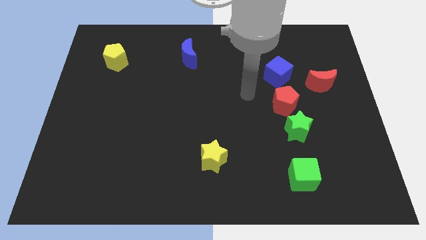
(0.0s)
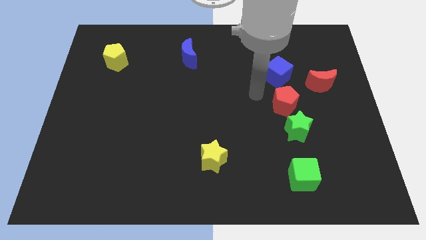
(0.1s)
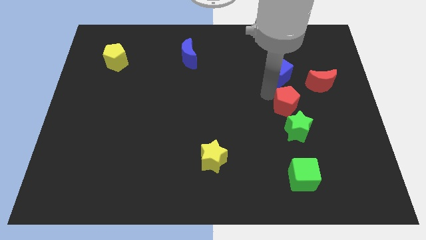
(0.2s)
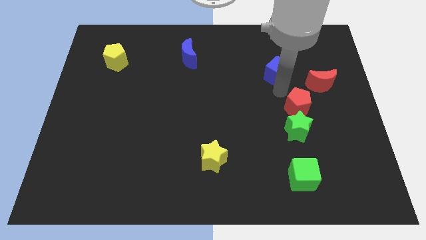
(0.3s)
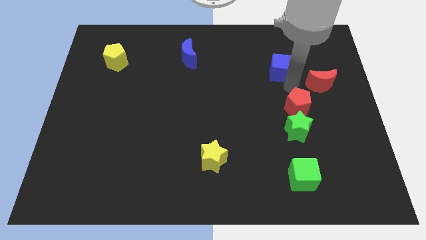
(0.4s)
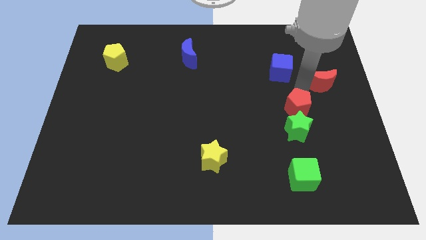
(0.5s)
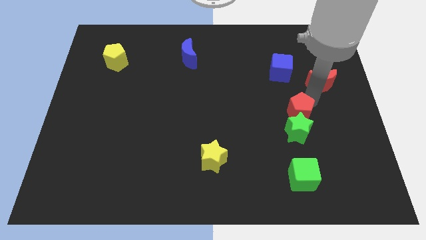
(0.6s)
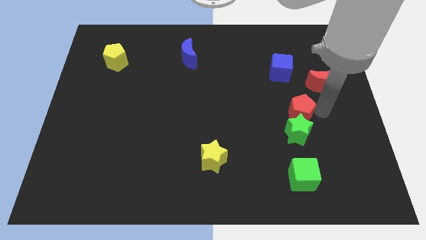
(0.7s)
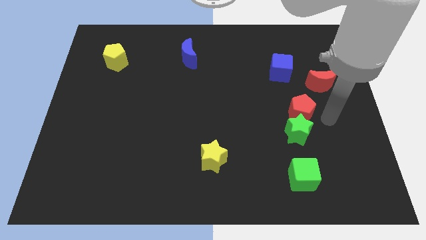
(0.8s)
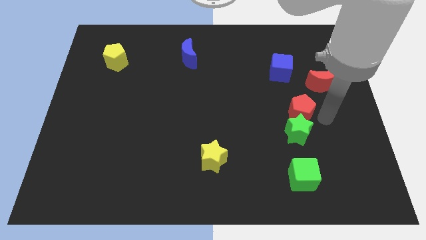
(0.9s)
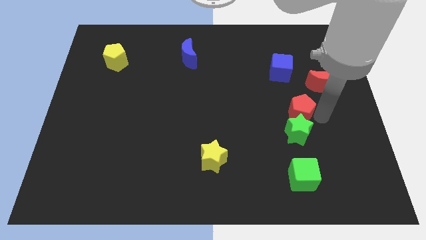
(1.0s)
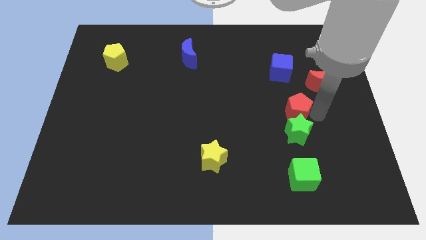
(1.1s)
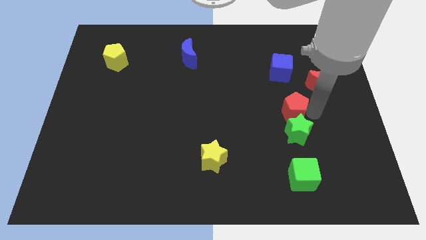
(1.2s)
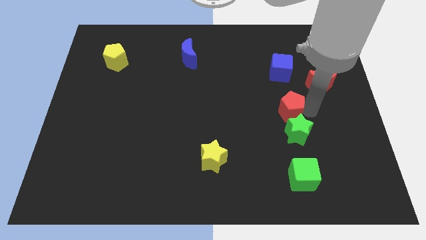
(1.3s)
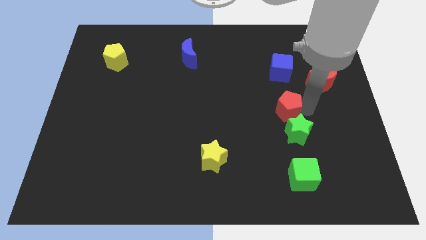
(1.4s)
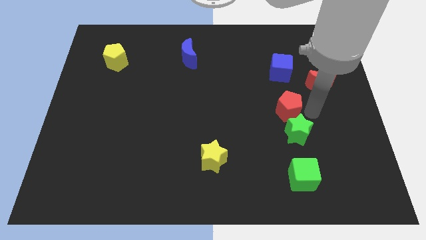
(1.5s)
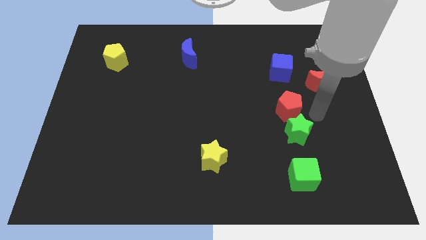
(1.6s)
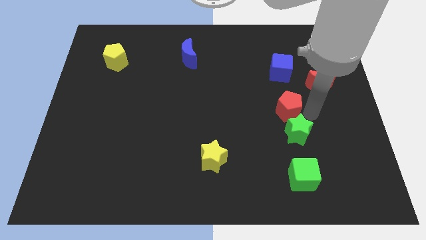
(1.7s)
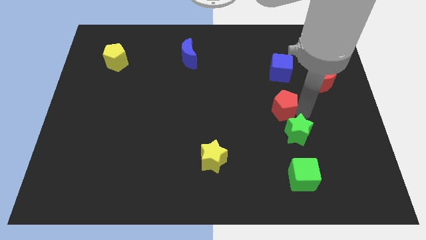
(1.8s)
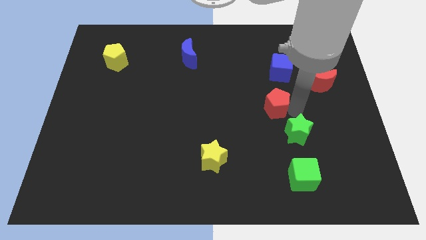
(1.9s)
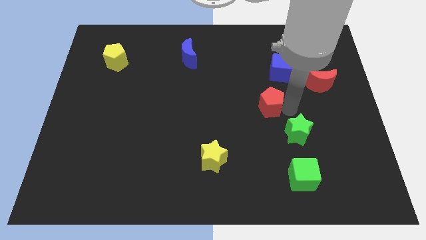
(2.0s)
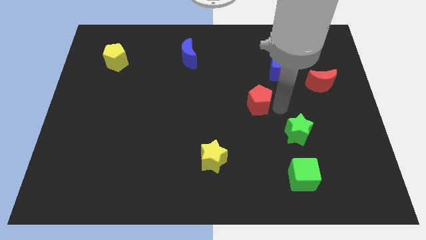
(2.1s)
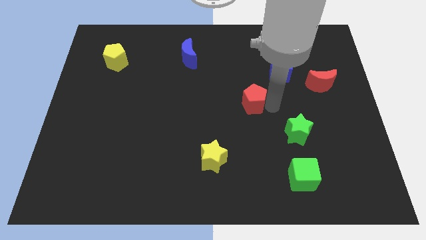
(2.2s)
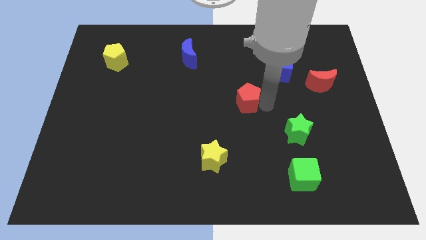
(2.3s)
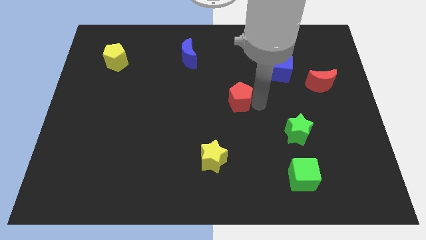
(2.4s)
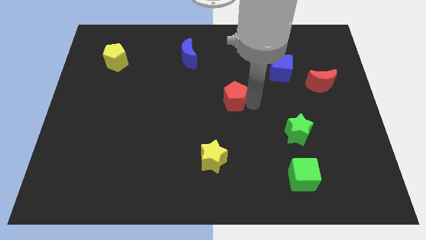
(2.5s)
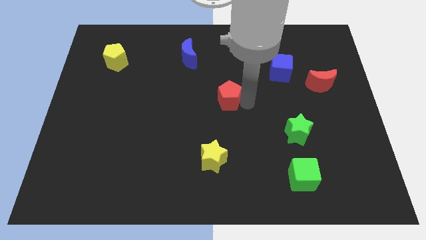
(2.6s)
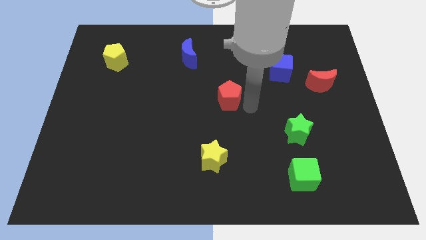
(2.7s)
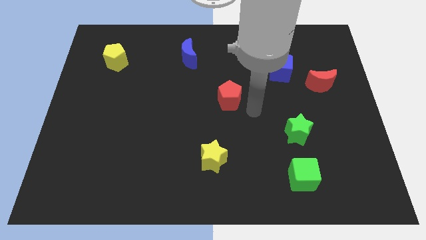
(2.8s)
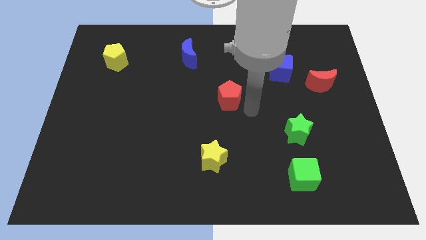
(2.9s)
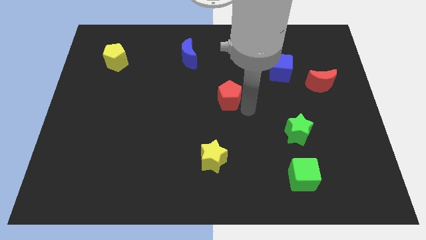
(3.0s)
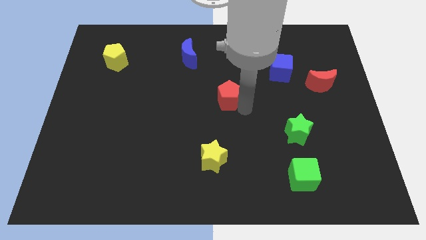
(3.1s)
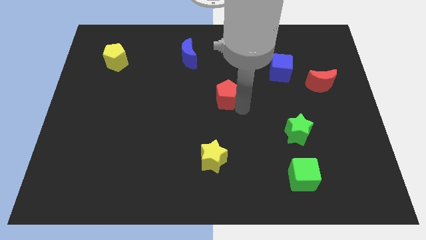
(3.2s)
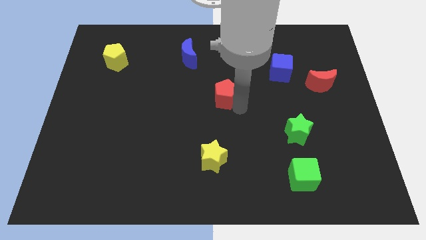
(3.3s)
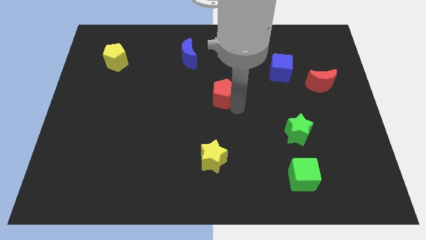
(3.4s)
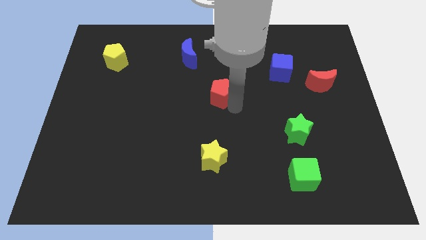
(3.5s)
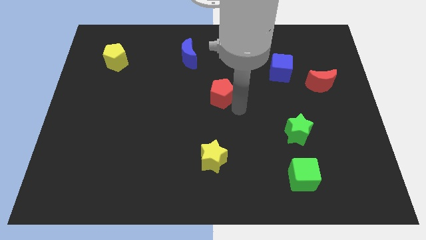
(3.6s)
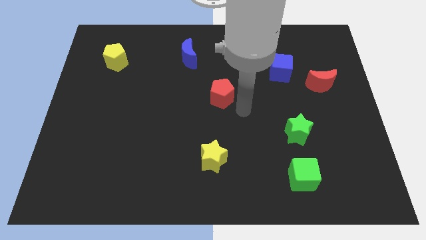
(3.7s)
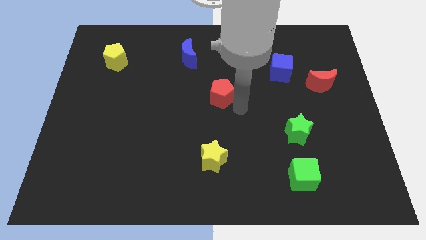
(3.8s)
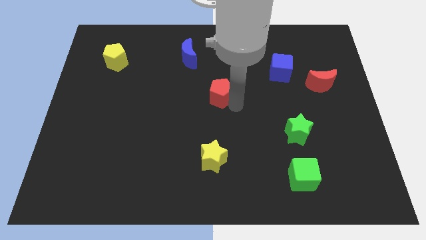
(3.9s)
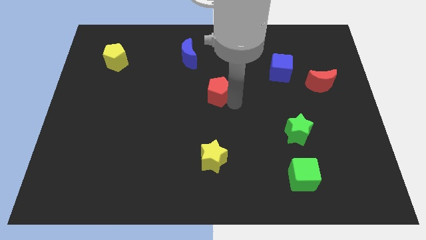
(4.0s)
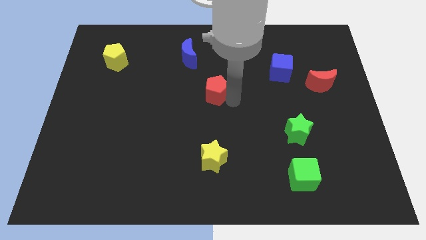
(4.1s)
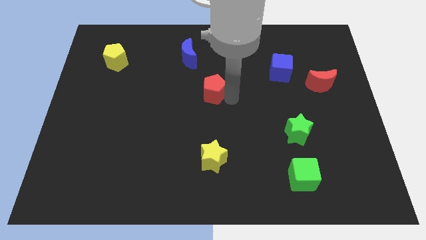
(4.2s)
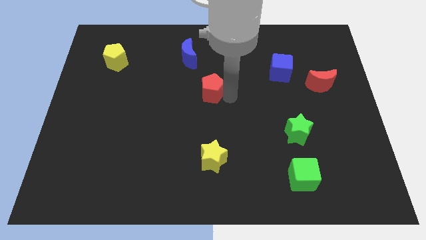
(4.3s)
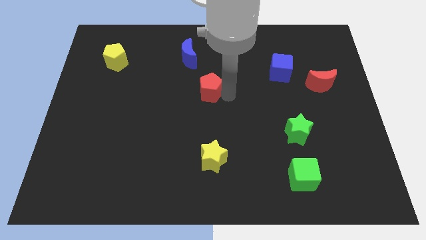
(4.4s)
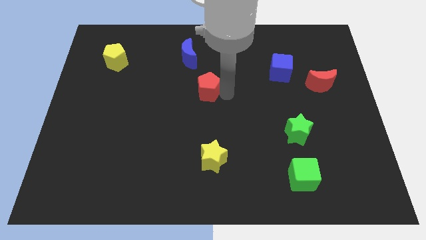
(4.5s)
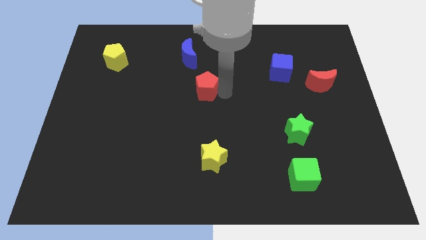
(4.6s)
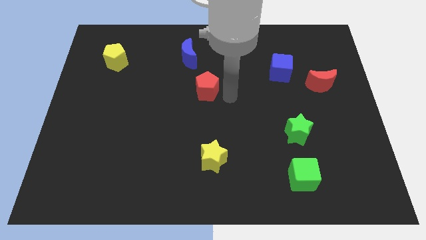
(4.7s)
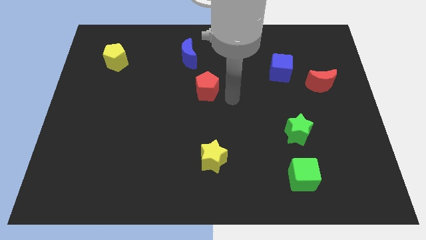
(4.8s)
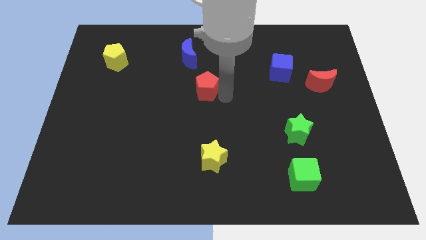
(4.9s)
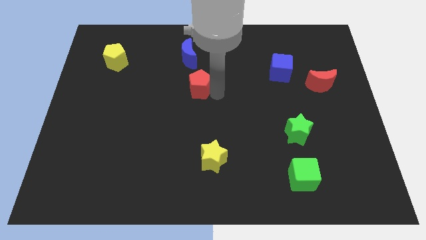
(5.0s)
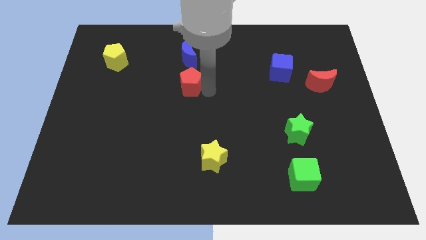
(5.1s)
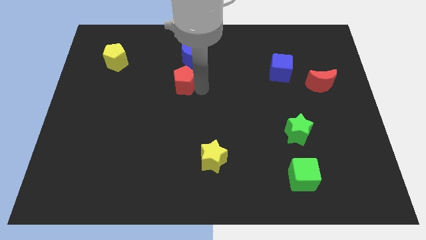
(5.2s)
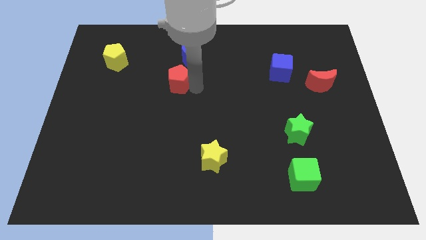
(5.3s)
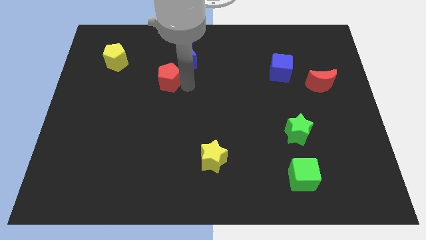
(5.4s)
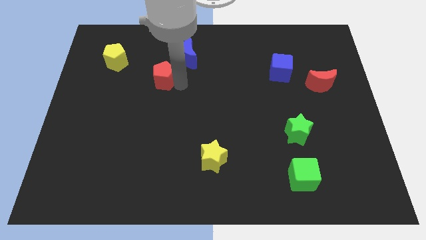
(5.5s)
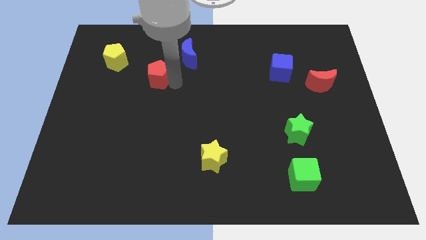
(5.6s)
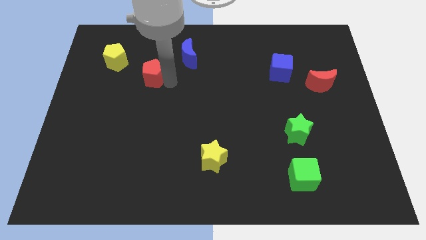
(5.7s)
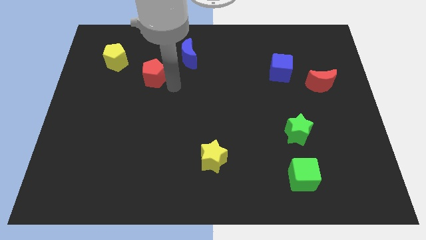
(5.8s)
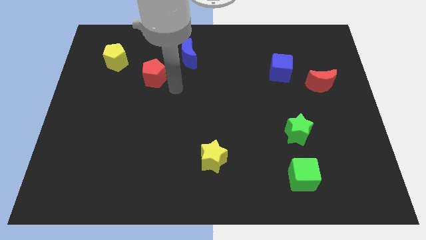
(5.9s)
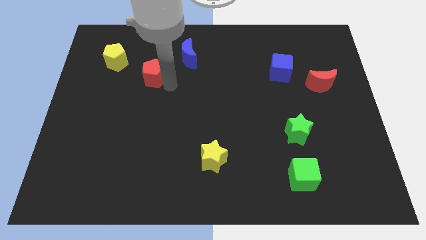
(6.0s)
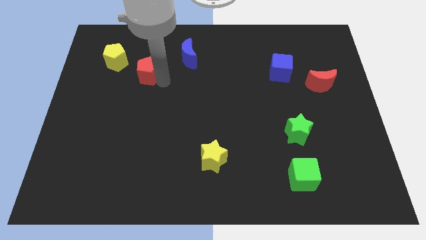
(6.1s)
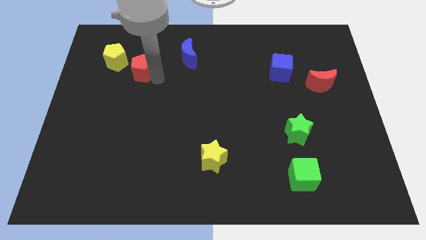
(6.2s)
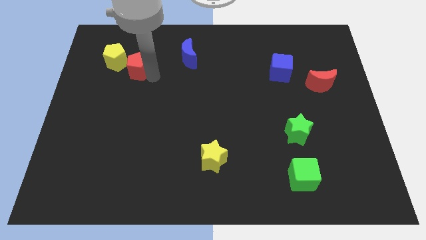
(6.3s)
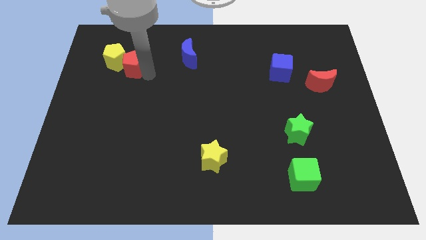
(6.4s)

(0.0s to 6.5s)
move the red pentagon to the yellow pentagon

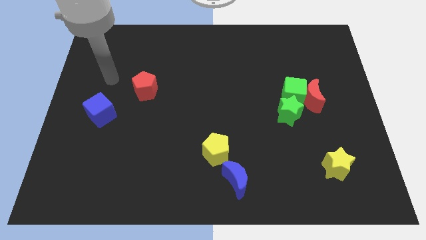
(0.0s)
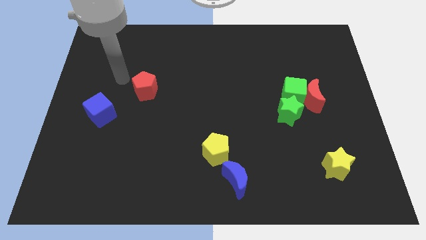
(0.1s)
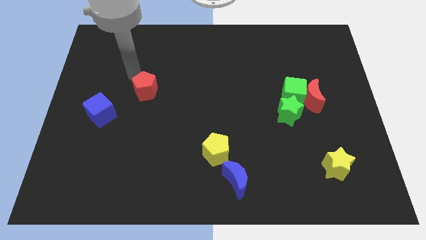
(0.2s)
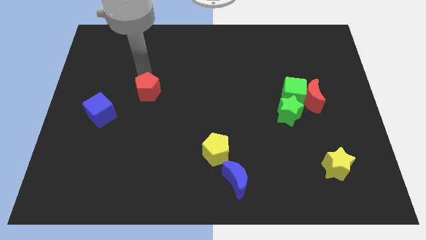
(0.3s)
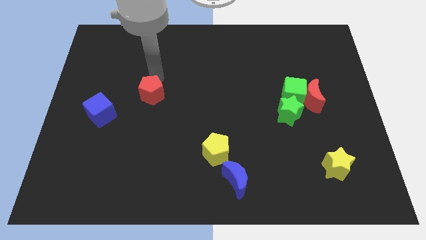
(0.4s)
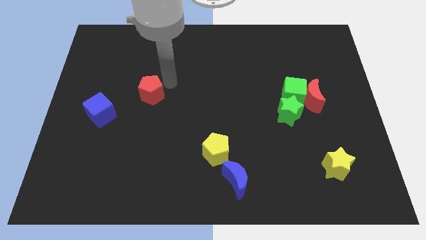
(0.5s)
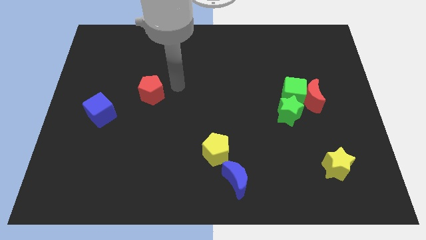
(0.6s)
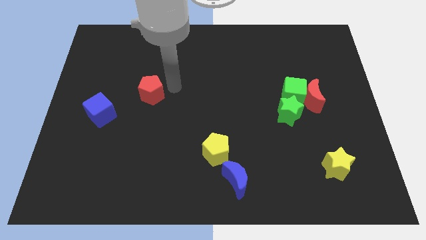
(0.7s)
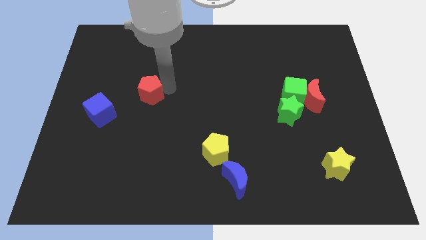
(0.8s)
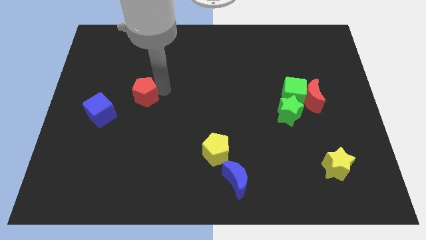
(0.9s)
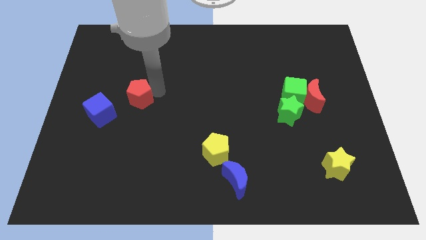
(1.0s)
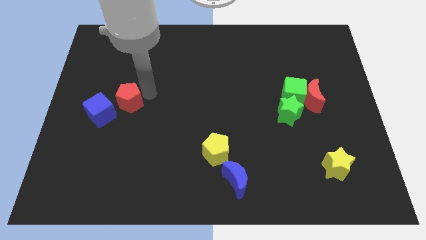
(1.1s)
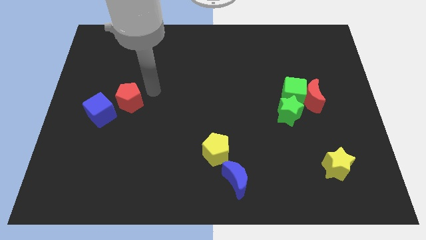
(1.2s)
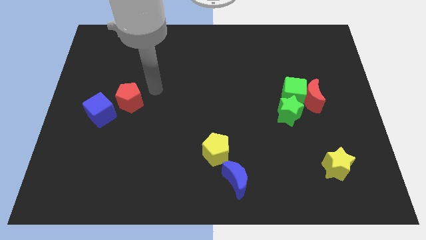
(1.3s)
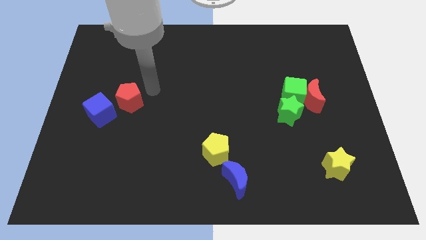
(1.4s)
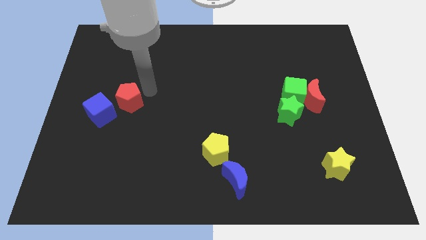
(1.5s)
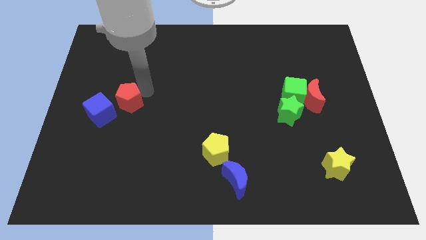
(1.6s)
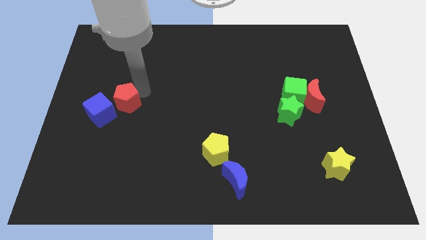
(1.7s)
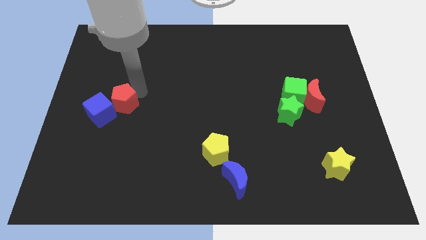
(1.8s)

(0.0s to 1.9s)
push the red pentagon next to the blue cube
